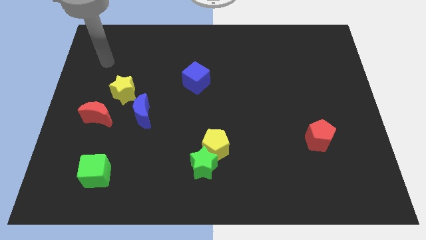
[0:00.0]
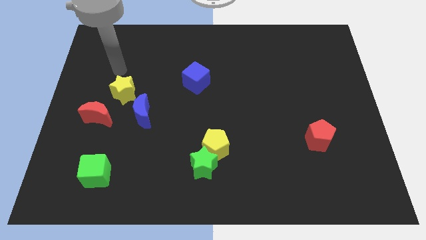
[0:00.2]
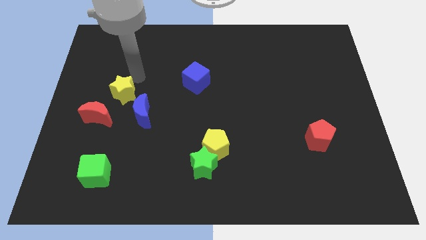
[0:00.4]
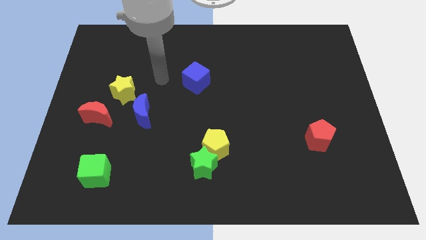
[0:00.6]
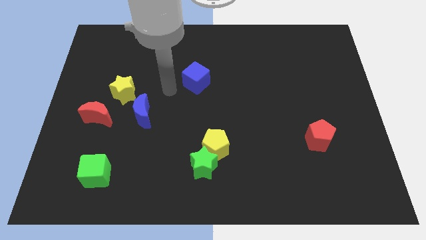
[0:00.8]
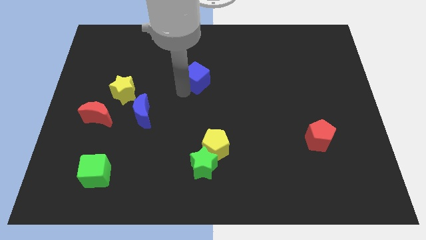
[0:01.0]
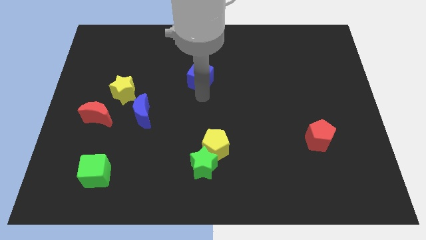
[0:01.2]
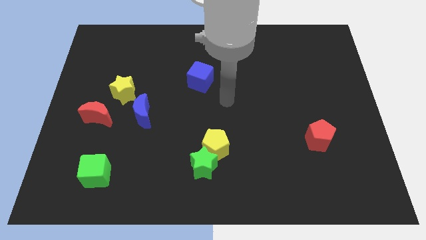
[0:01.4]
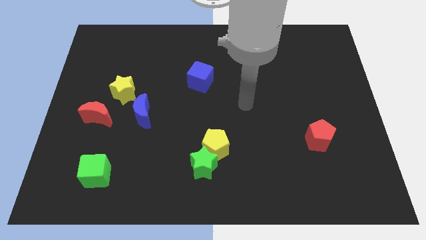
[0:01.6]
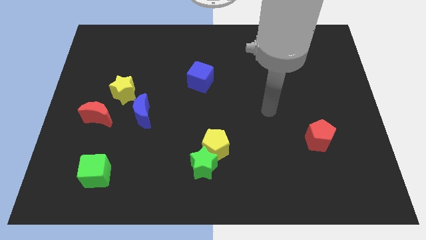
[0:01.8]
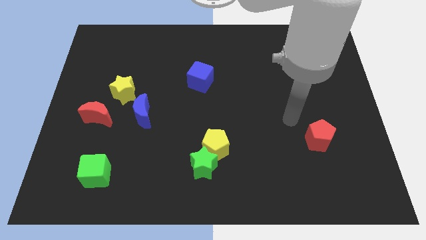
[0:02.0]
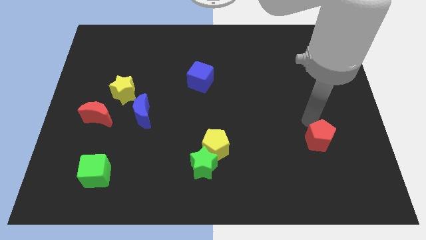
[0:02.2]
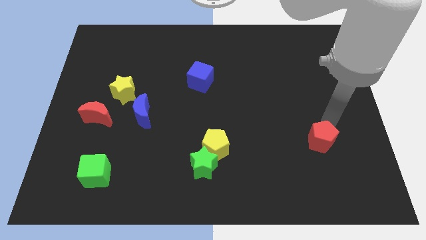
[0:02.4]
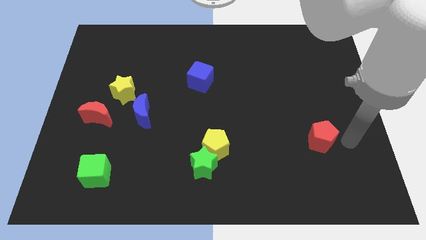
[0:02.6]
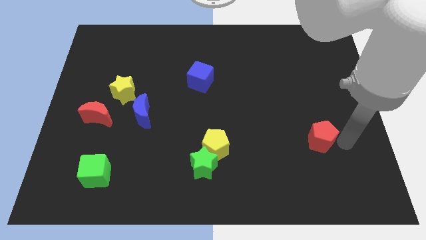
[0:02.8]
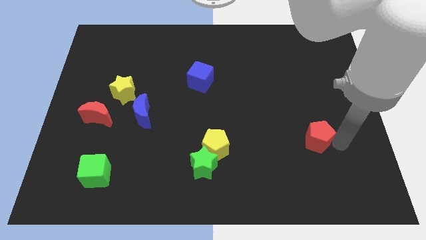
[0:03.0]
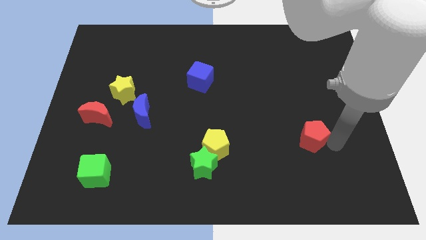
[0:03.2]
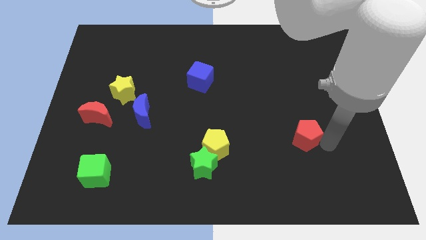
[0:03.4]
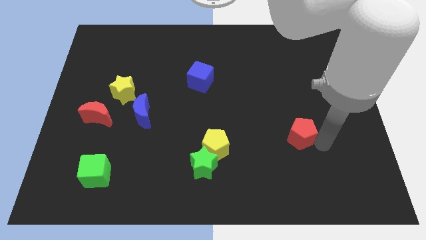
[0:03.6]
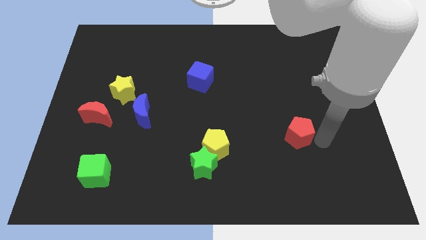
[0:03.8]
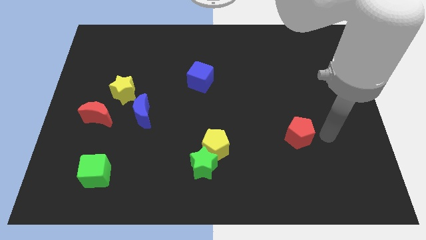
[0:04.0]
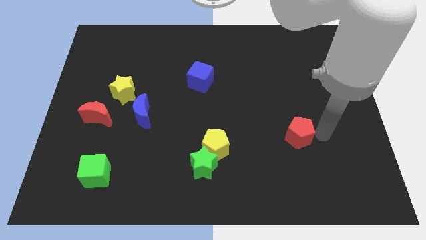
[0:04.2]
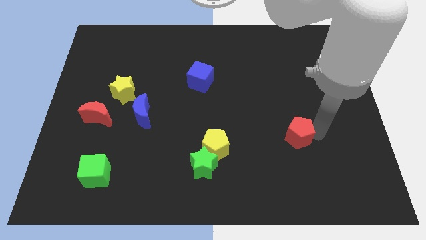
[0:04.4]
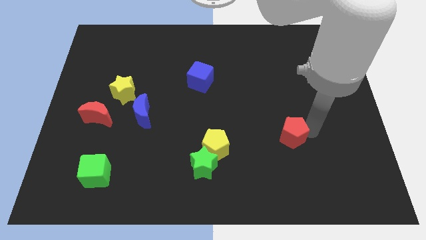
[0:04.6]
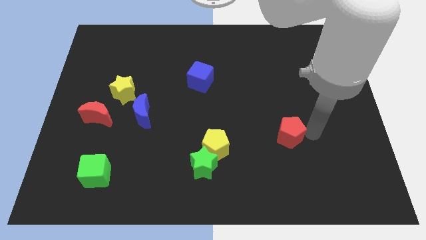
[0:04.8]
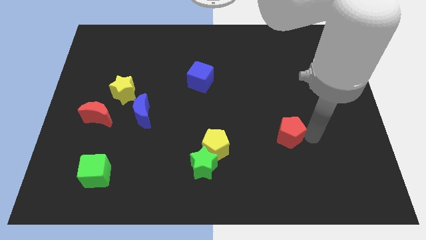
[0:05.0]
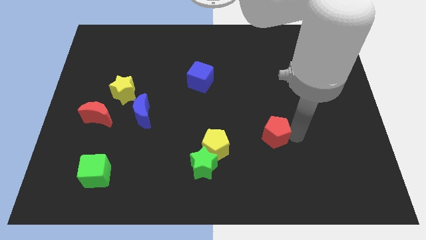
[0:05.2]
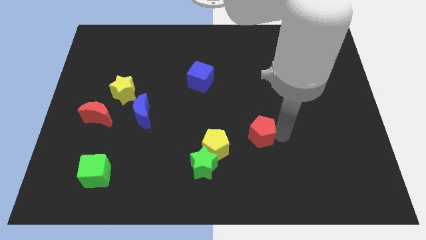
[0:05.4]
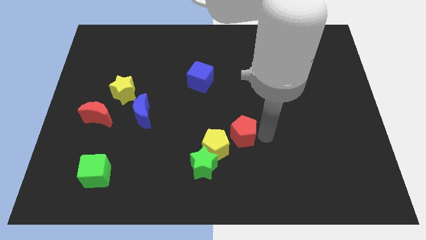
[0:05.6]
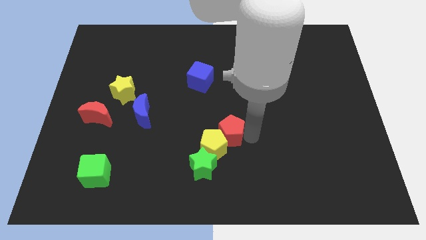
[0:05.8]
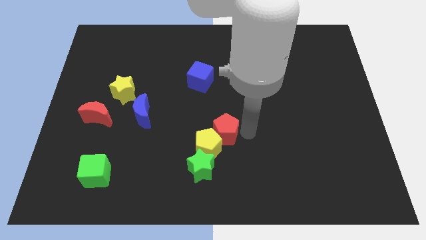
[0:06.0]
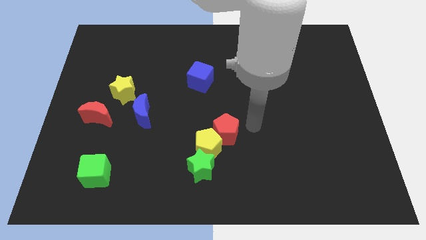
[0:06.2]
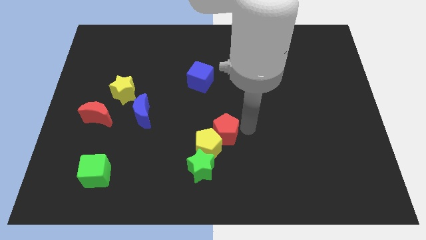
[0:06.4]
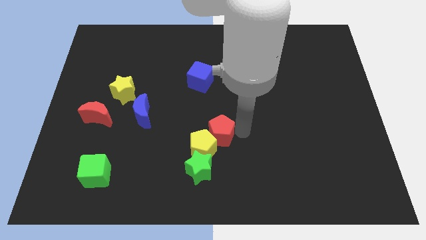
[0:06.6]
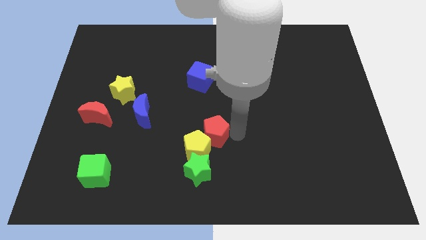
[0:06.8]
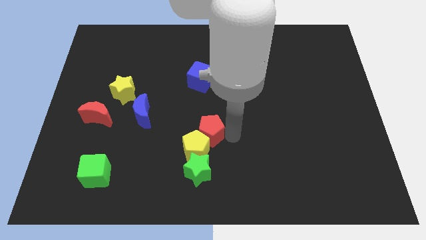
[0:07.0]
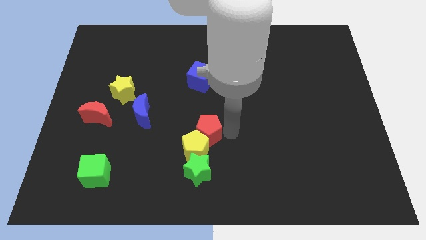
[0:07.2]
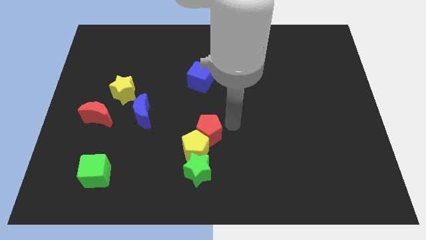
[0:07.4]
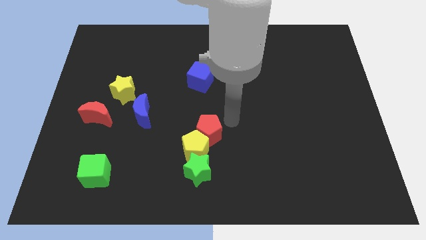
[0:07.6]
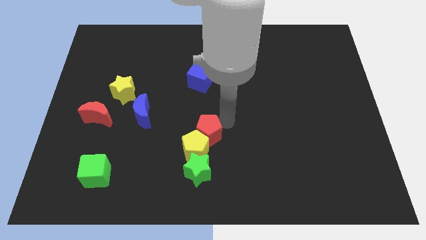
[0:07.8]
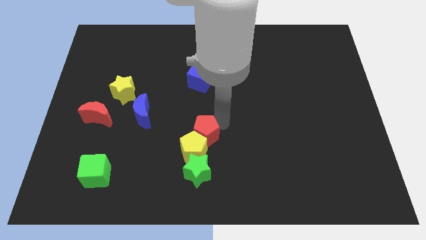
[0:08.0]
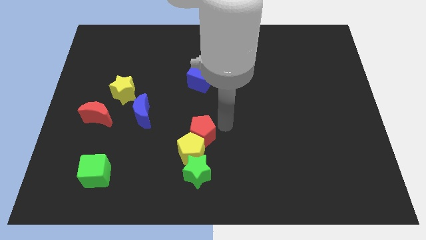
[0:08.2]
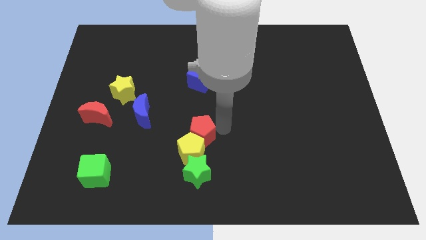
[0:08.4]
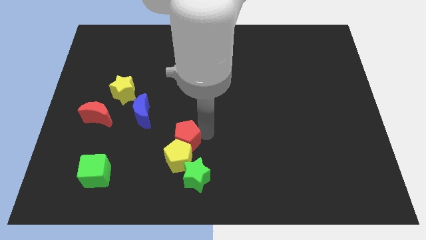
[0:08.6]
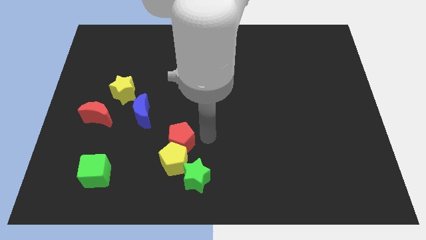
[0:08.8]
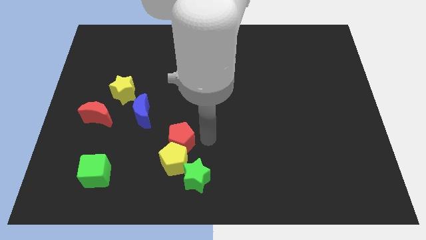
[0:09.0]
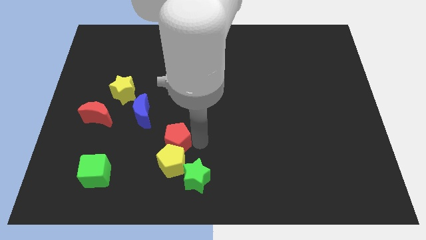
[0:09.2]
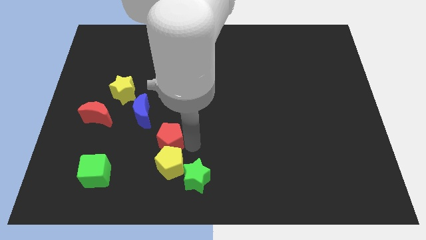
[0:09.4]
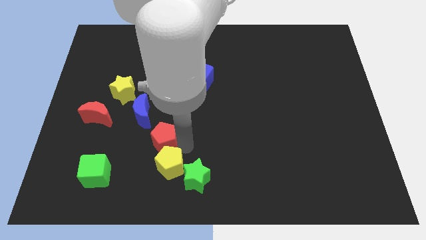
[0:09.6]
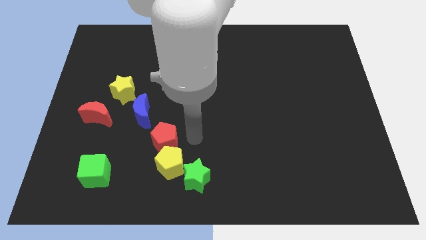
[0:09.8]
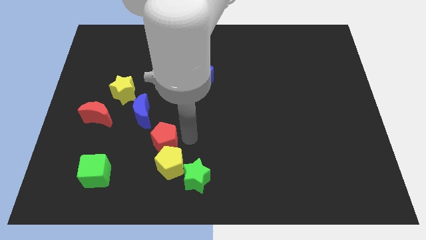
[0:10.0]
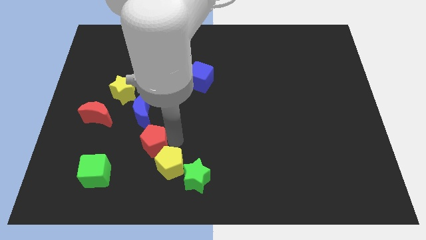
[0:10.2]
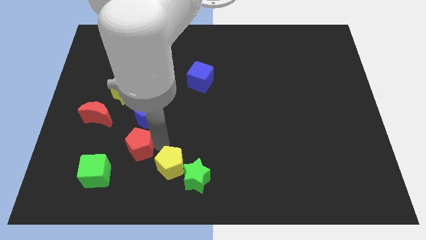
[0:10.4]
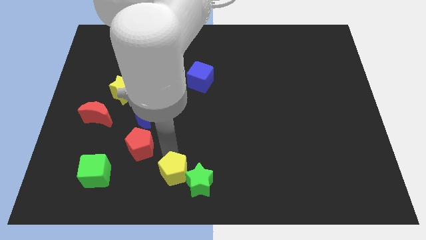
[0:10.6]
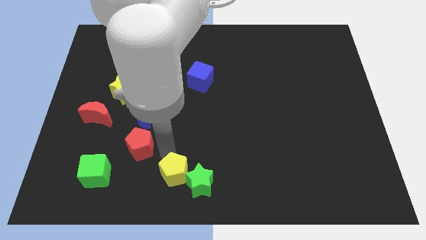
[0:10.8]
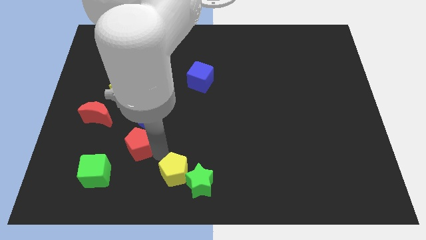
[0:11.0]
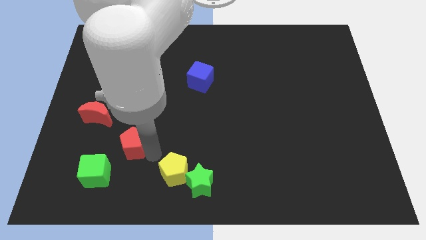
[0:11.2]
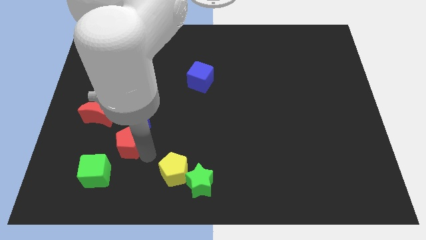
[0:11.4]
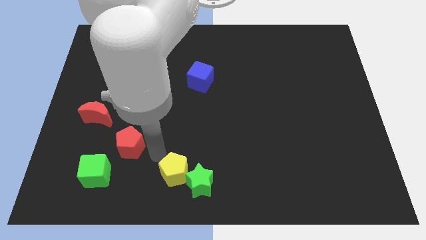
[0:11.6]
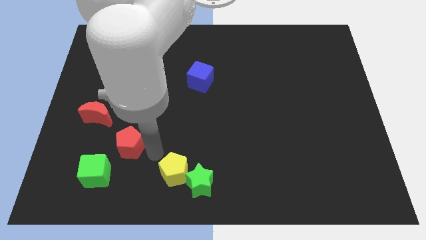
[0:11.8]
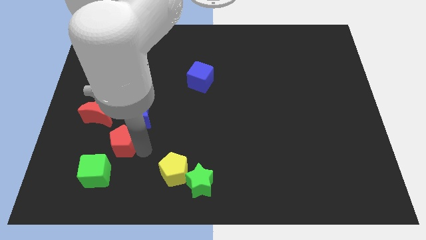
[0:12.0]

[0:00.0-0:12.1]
put the red pentagon to the bottom side of the yellow star

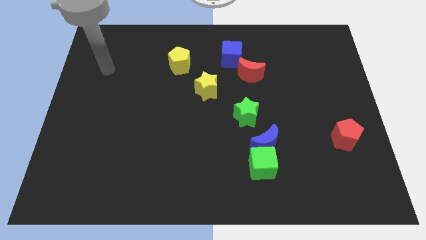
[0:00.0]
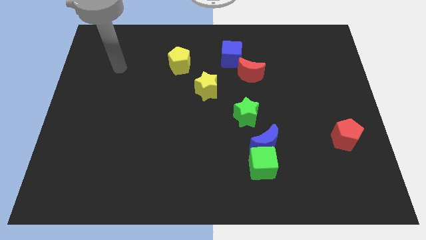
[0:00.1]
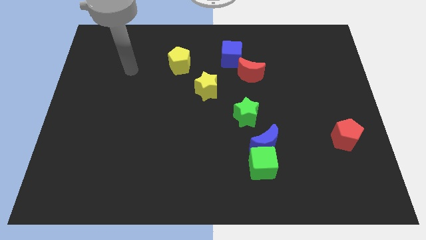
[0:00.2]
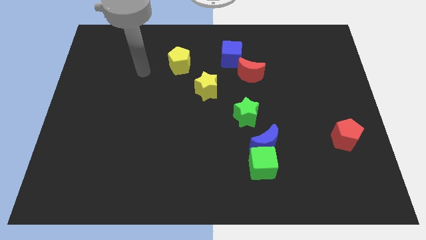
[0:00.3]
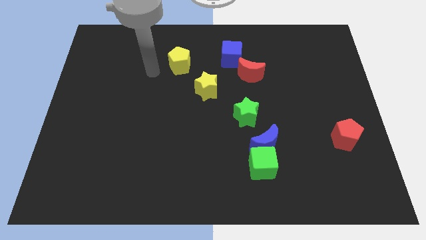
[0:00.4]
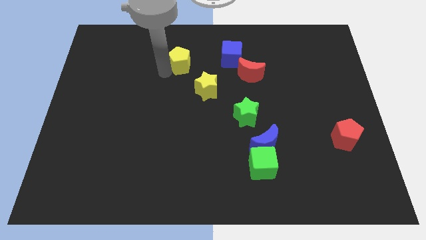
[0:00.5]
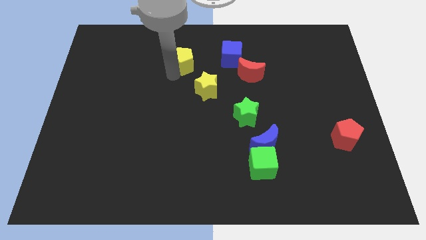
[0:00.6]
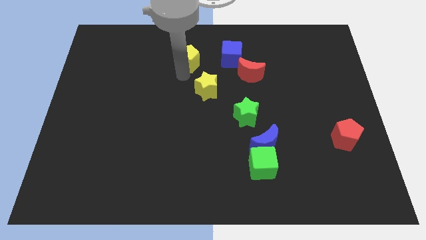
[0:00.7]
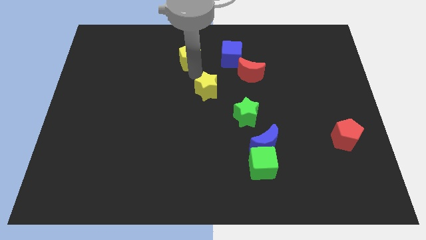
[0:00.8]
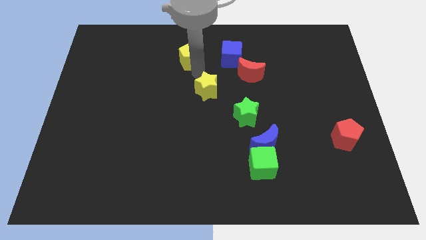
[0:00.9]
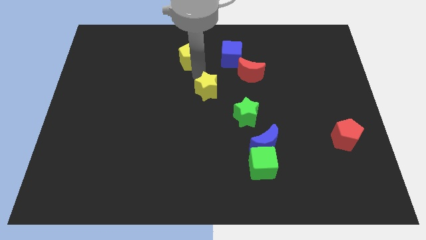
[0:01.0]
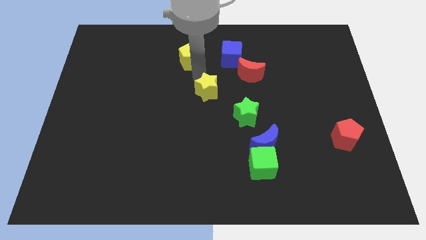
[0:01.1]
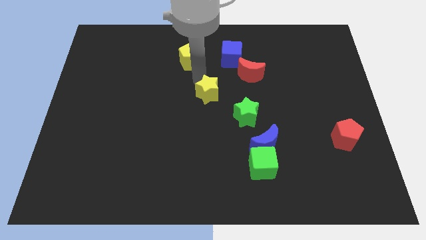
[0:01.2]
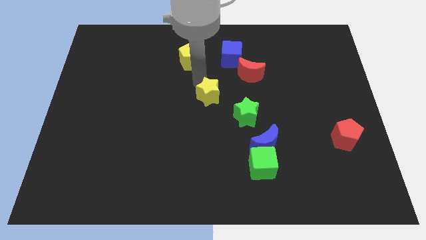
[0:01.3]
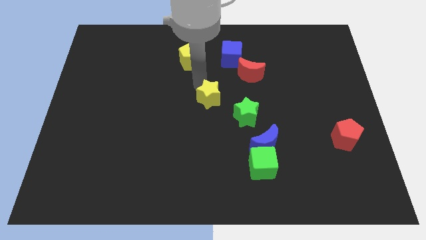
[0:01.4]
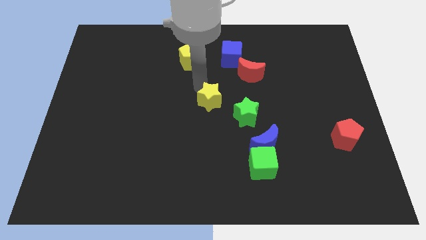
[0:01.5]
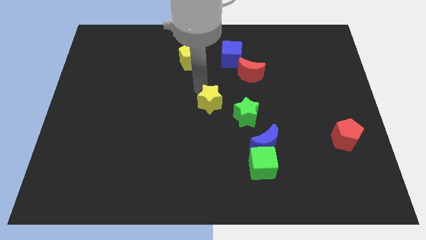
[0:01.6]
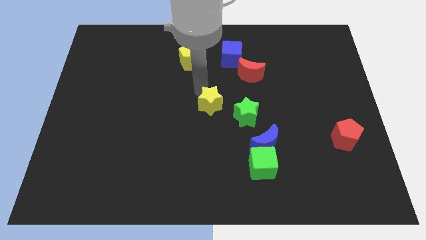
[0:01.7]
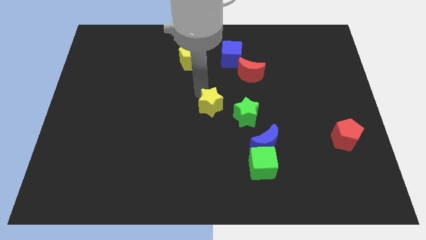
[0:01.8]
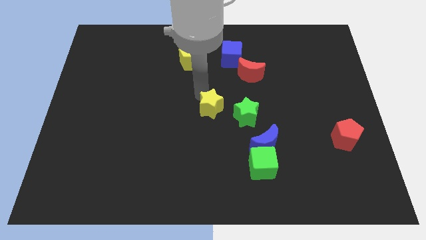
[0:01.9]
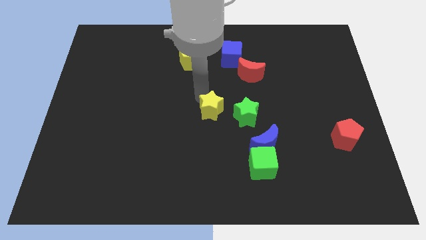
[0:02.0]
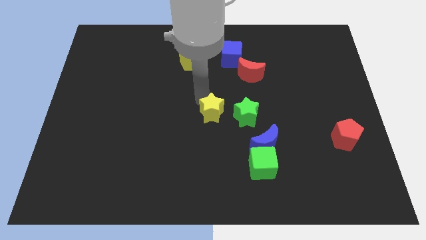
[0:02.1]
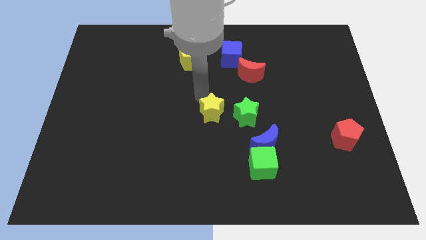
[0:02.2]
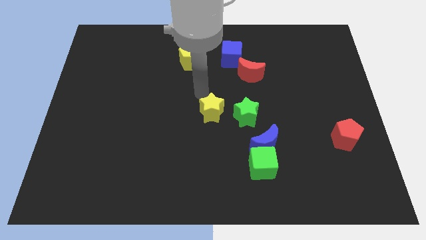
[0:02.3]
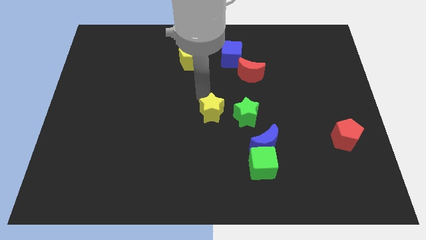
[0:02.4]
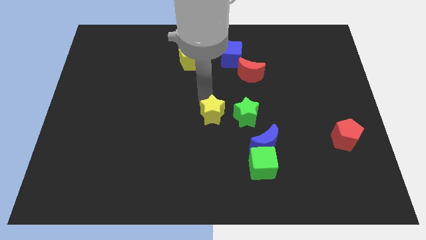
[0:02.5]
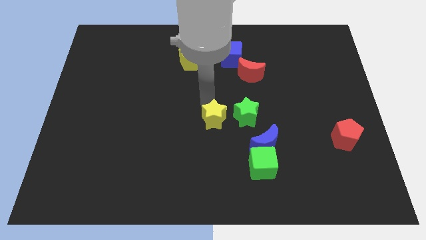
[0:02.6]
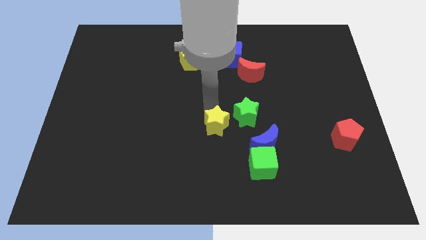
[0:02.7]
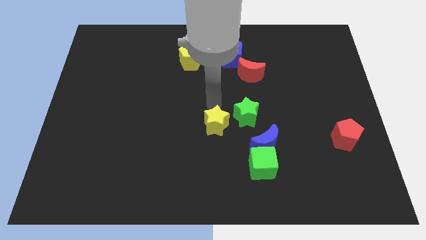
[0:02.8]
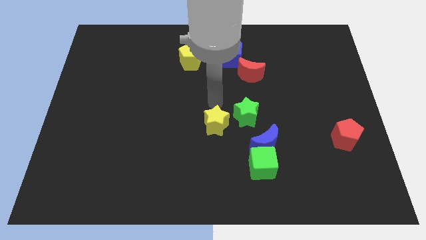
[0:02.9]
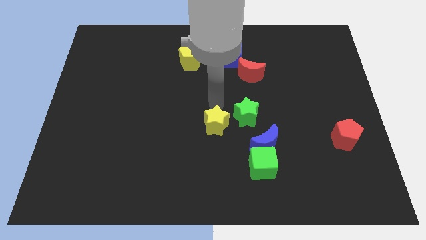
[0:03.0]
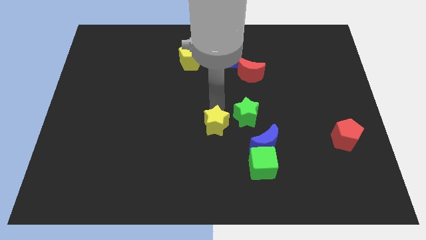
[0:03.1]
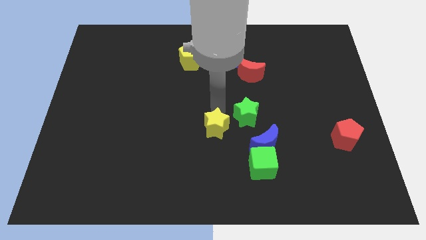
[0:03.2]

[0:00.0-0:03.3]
move the yellow star just left of the blue moon
